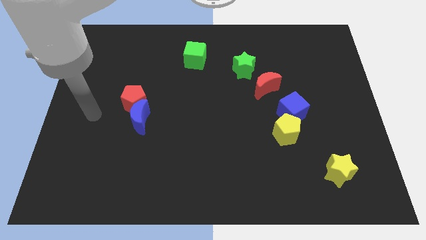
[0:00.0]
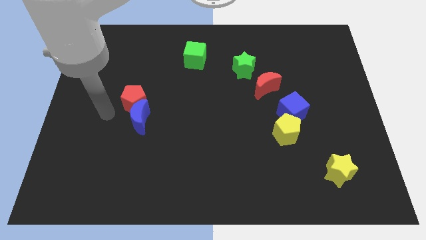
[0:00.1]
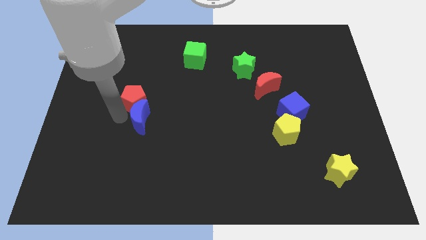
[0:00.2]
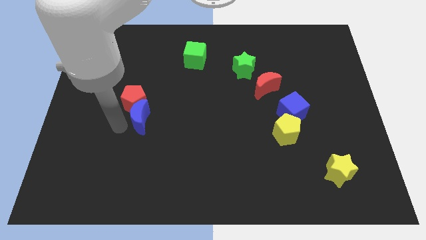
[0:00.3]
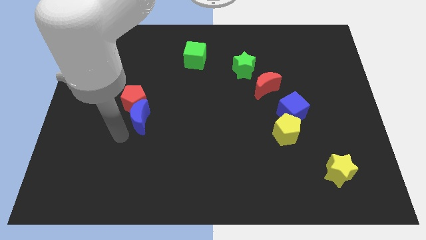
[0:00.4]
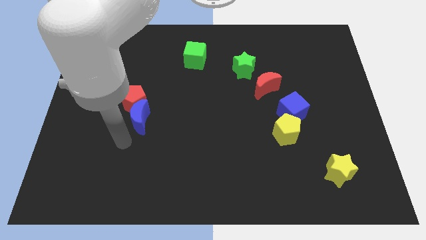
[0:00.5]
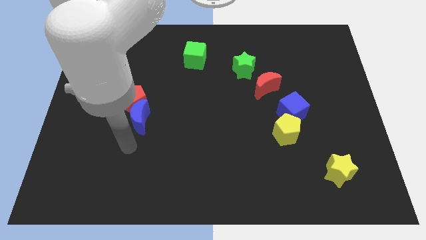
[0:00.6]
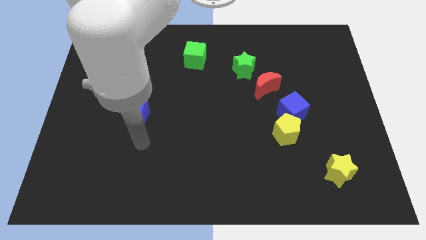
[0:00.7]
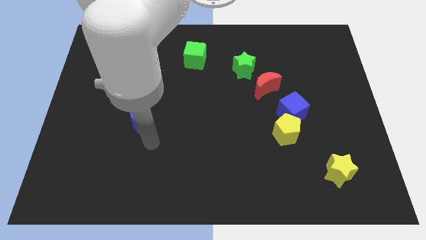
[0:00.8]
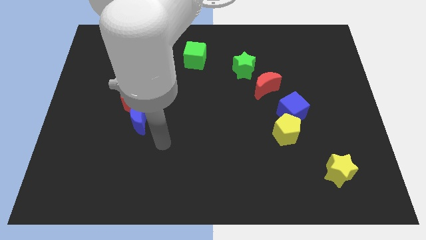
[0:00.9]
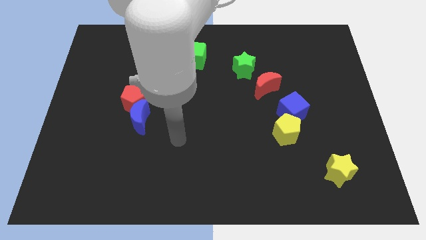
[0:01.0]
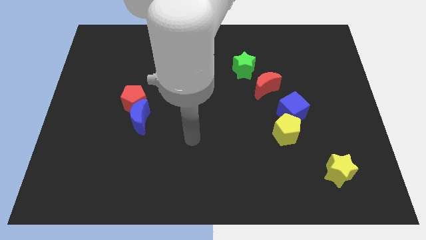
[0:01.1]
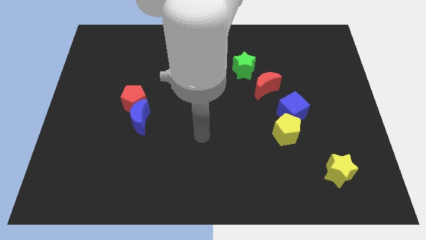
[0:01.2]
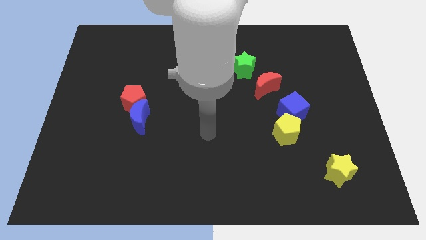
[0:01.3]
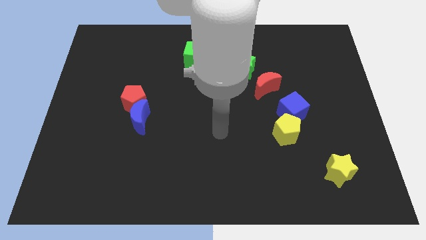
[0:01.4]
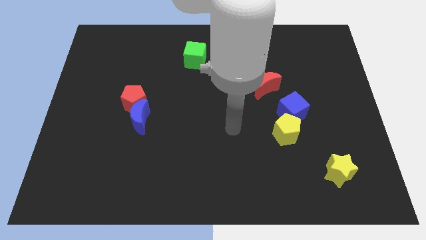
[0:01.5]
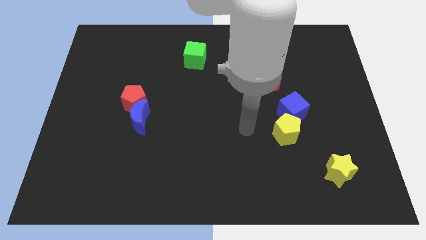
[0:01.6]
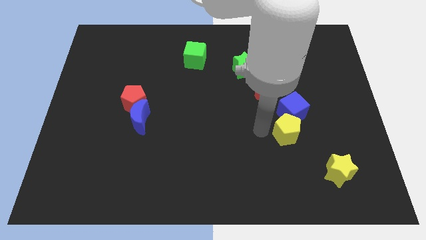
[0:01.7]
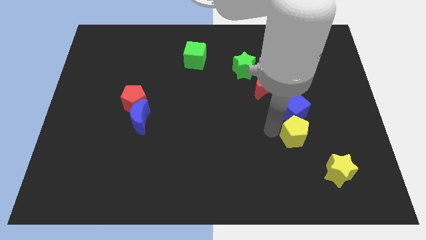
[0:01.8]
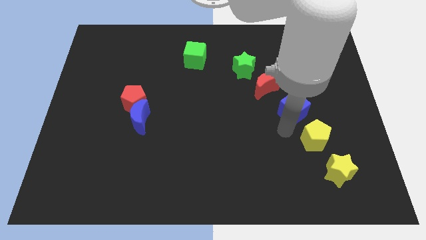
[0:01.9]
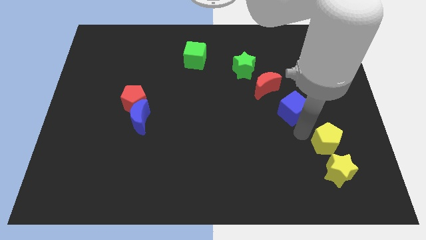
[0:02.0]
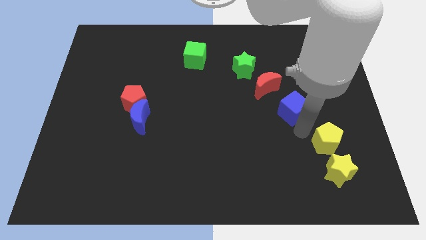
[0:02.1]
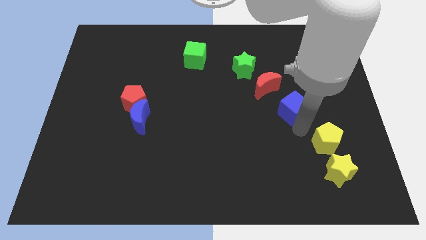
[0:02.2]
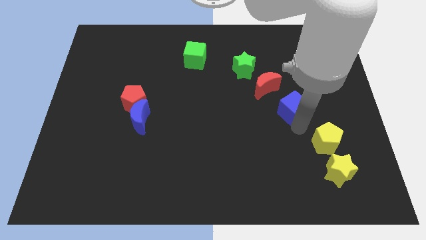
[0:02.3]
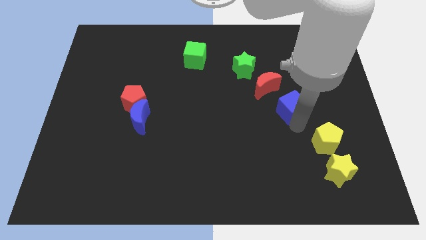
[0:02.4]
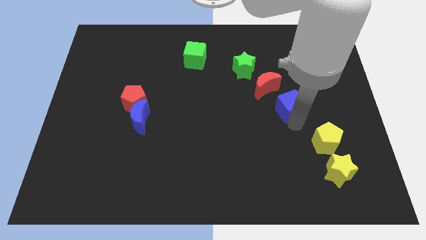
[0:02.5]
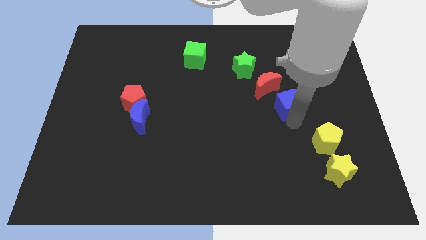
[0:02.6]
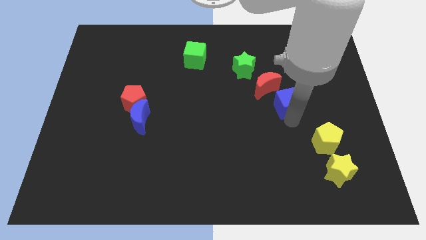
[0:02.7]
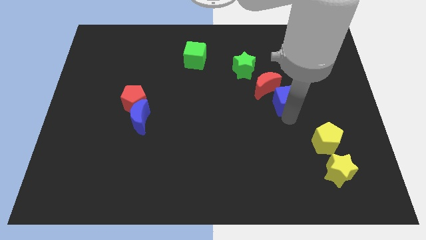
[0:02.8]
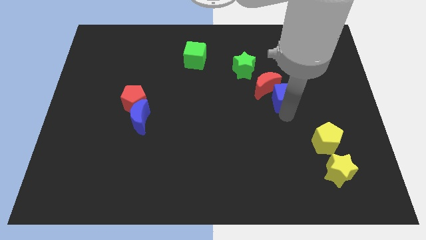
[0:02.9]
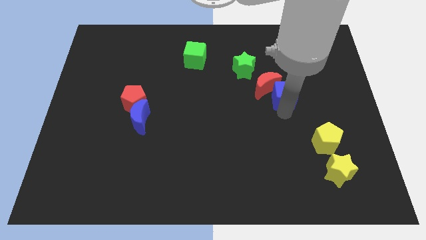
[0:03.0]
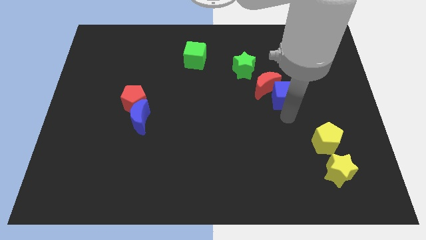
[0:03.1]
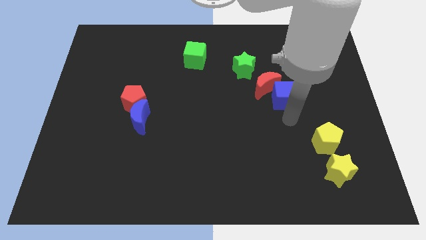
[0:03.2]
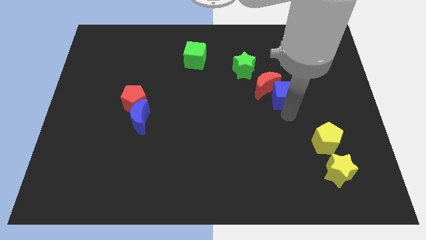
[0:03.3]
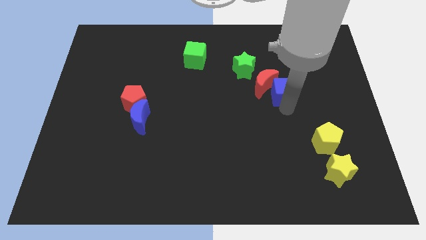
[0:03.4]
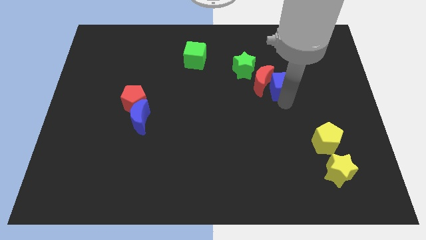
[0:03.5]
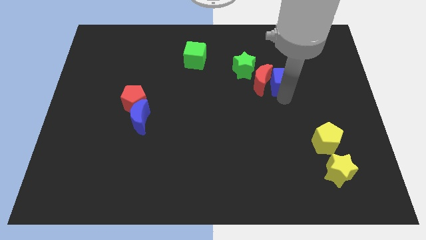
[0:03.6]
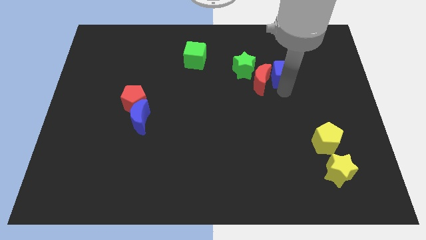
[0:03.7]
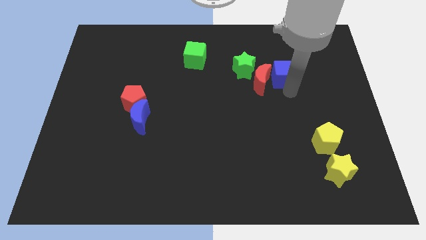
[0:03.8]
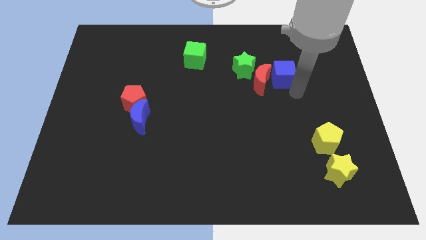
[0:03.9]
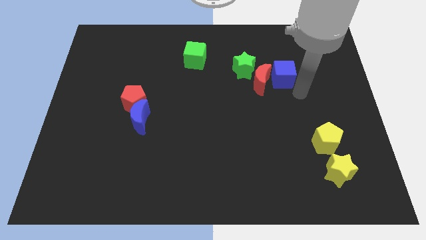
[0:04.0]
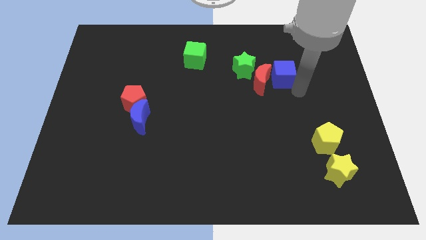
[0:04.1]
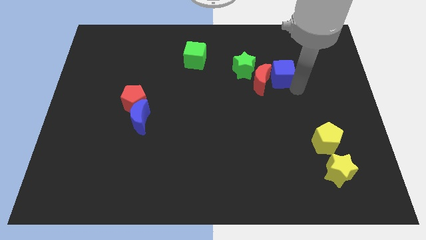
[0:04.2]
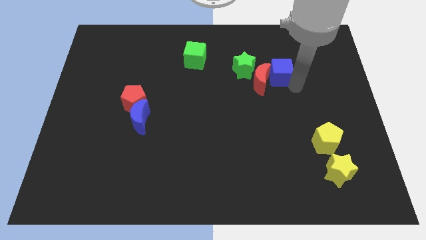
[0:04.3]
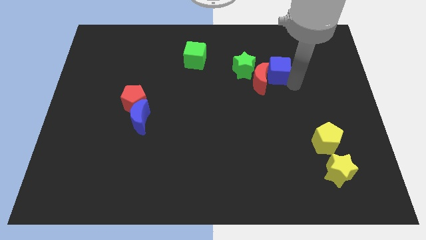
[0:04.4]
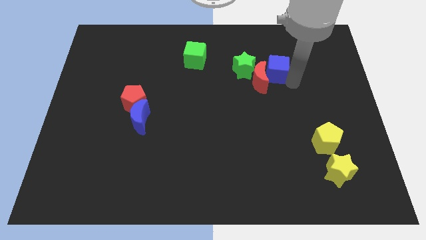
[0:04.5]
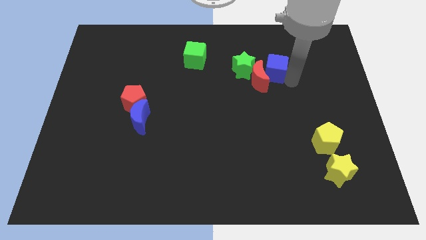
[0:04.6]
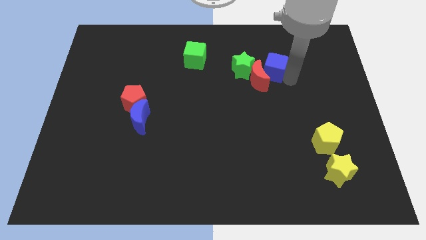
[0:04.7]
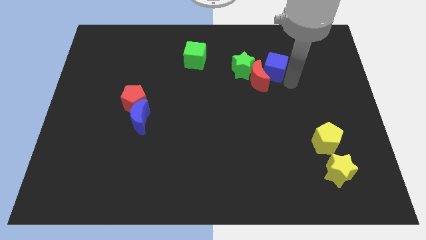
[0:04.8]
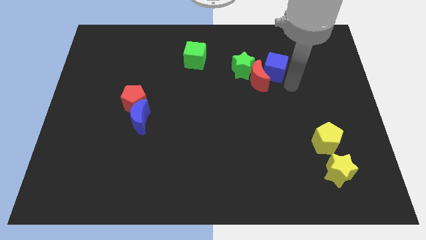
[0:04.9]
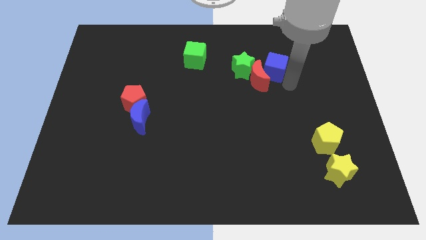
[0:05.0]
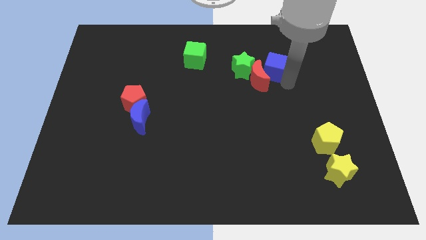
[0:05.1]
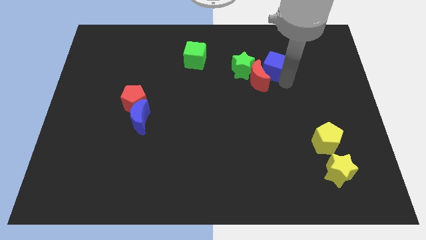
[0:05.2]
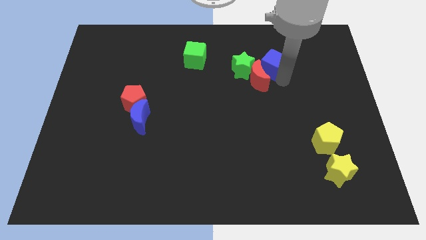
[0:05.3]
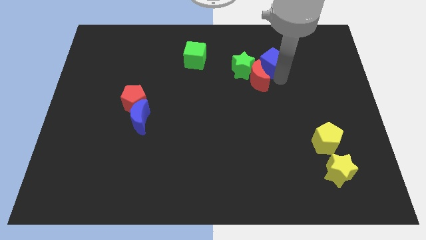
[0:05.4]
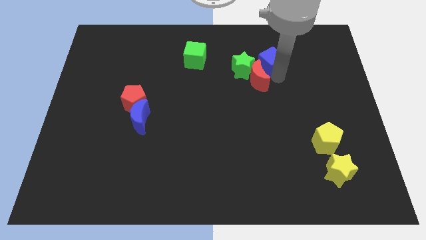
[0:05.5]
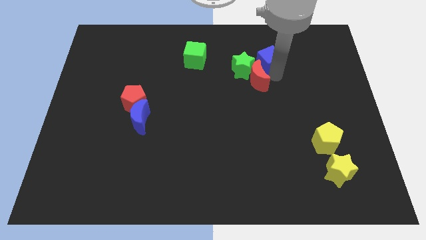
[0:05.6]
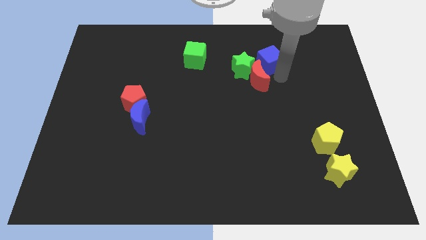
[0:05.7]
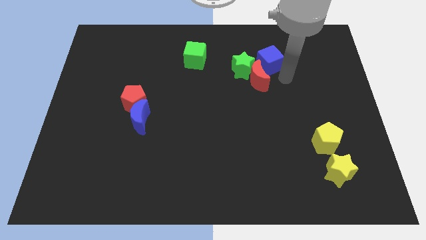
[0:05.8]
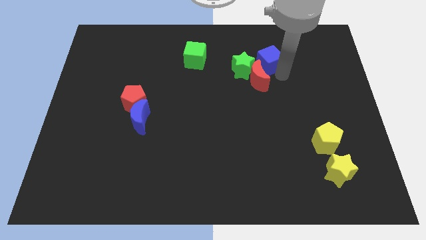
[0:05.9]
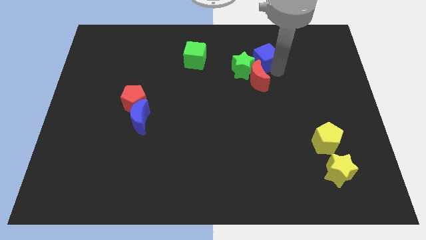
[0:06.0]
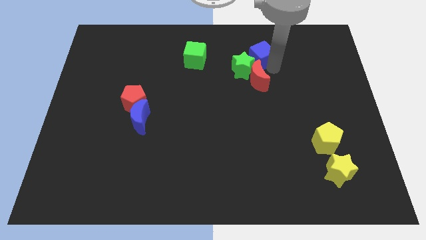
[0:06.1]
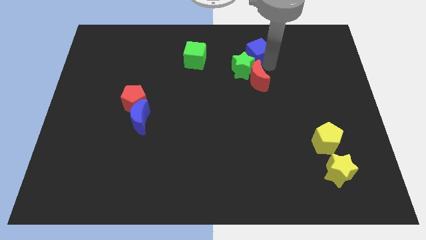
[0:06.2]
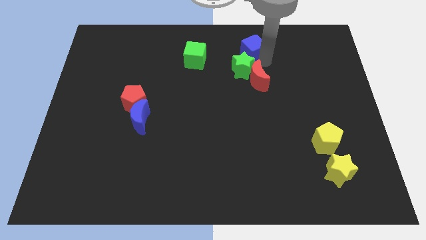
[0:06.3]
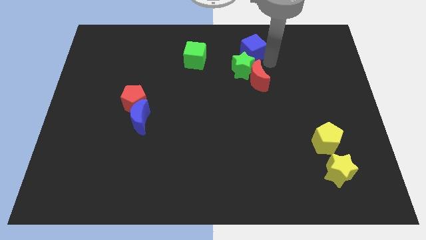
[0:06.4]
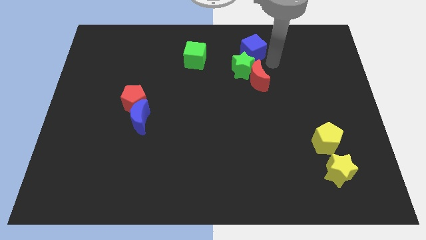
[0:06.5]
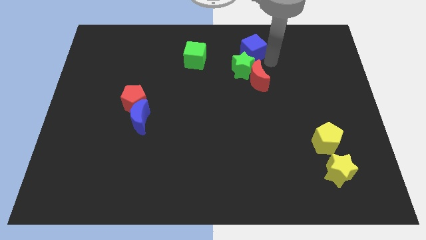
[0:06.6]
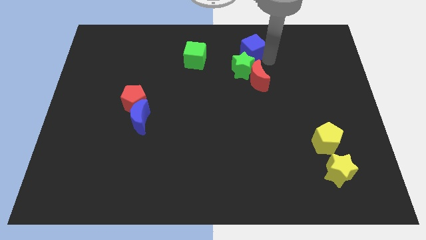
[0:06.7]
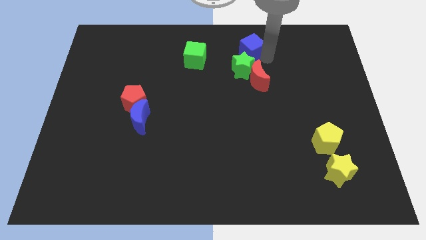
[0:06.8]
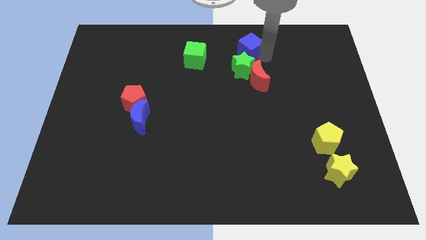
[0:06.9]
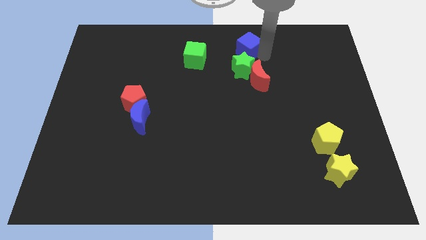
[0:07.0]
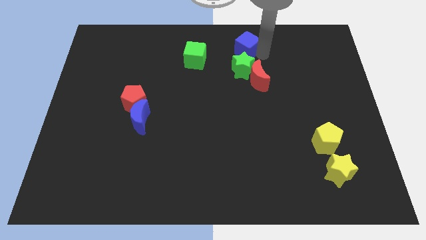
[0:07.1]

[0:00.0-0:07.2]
move the blue cube to the top
